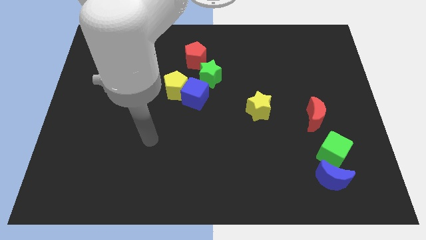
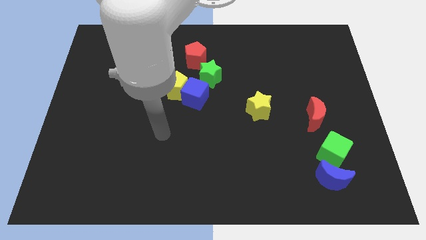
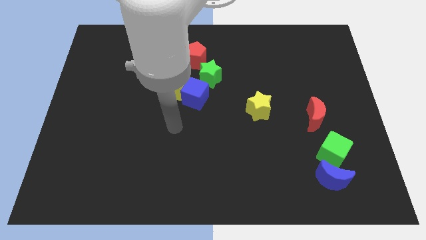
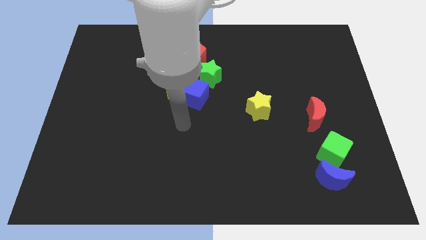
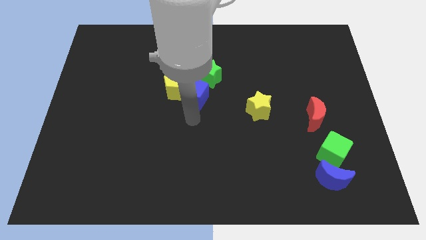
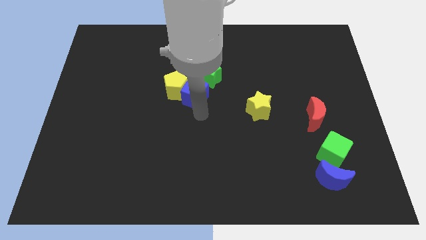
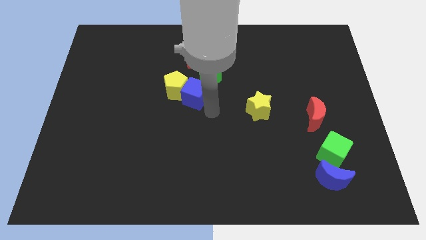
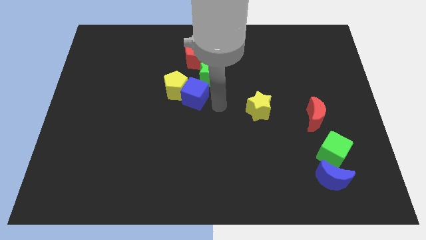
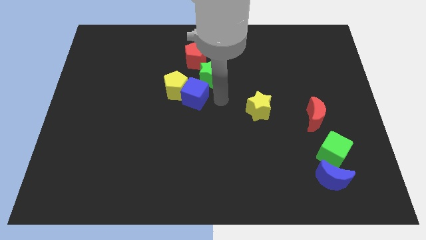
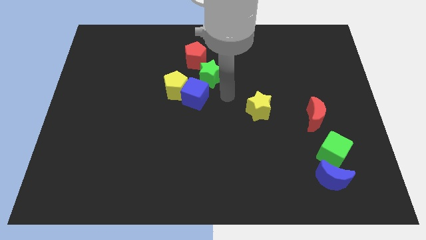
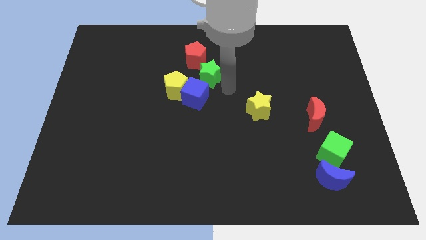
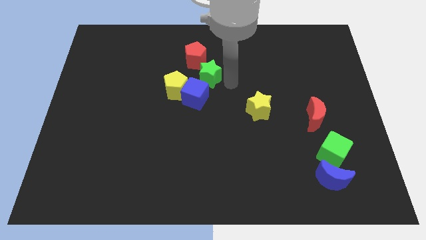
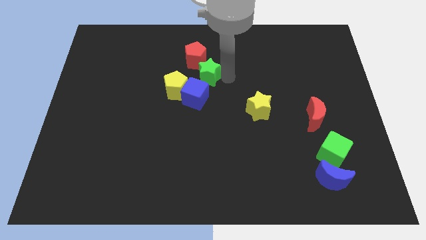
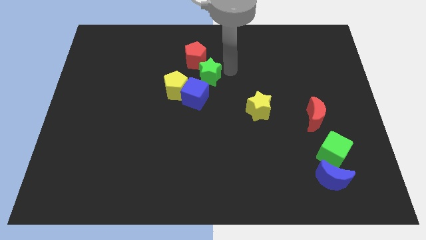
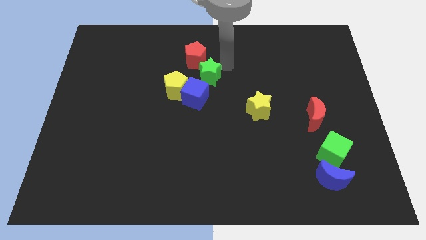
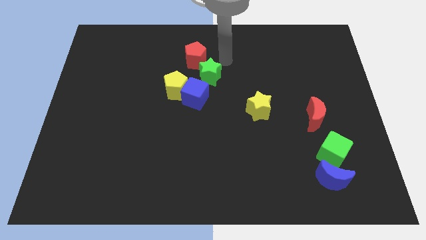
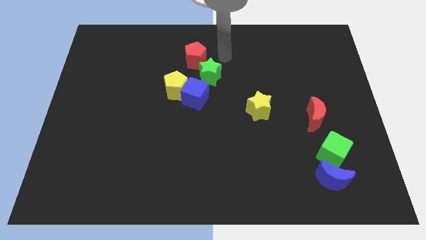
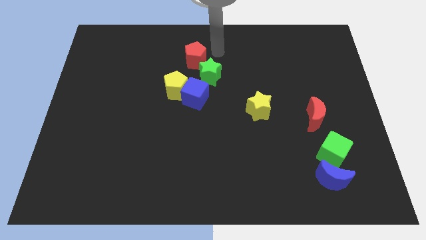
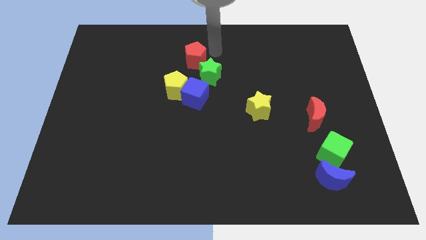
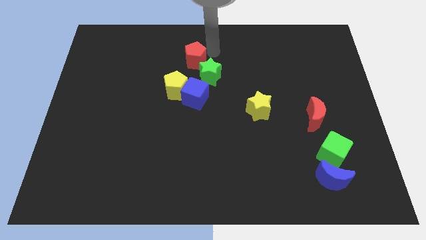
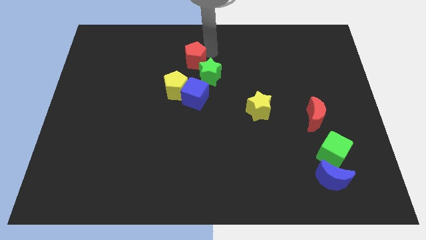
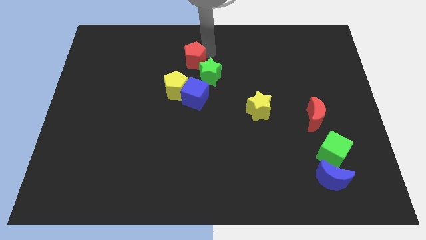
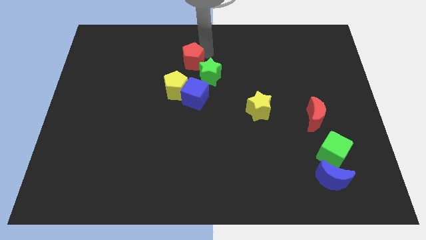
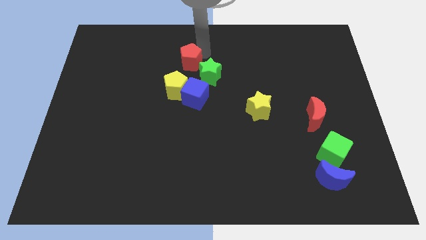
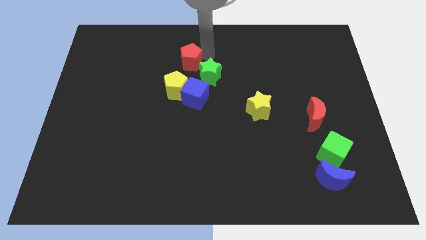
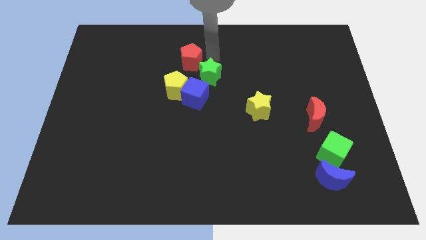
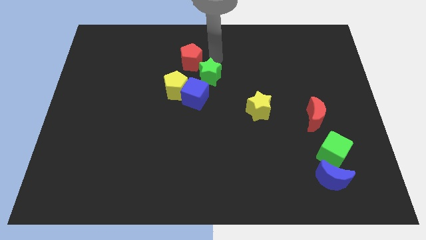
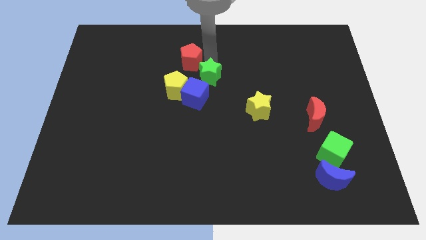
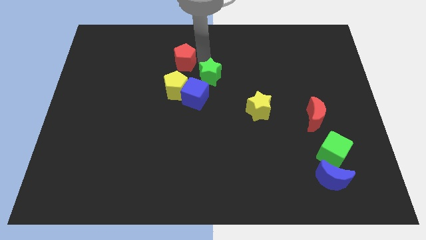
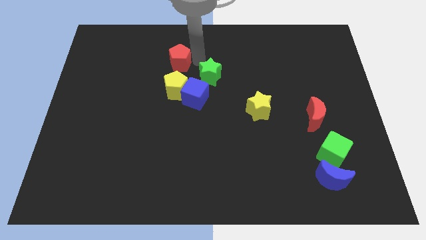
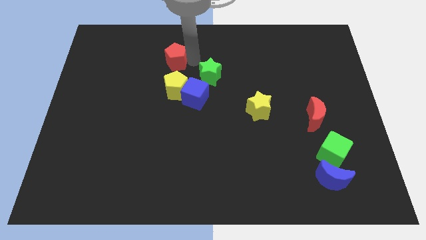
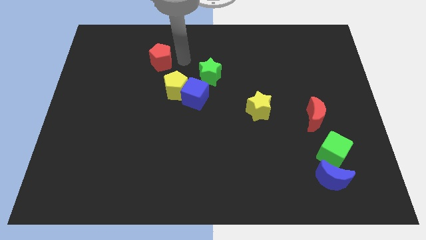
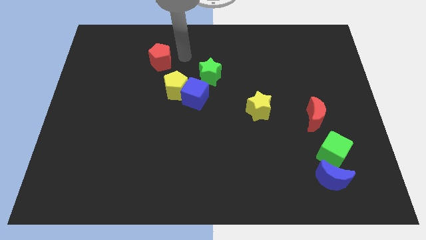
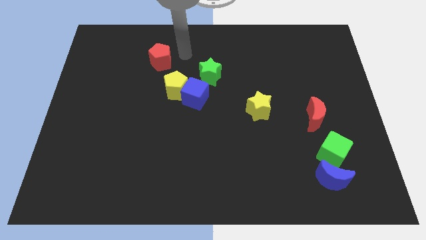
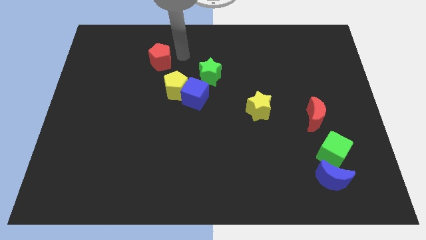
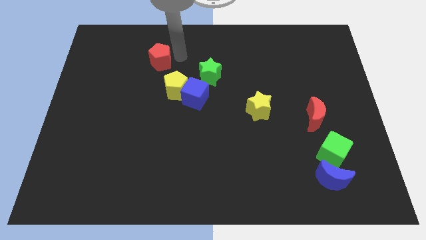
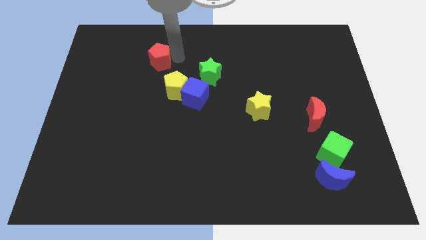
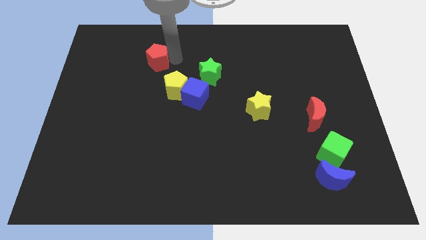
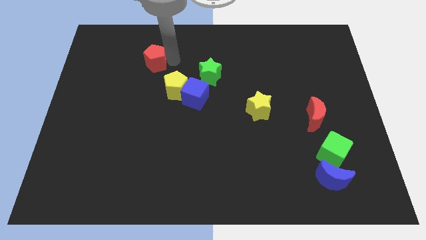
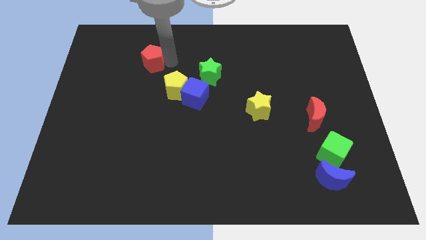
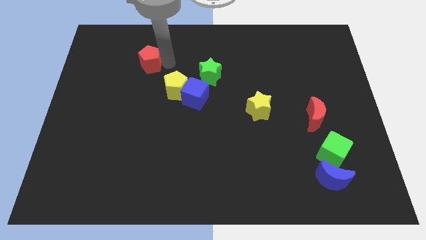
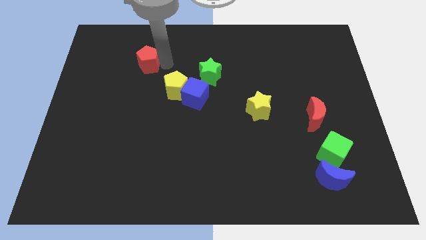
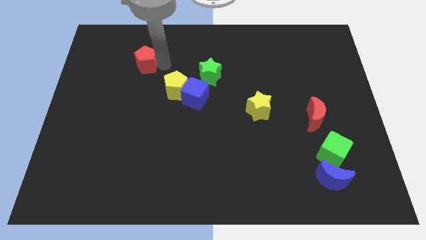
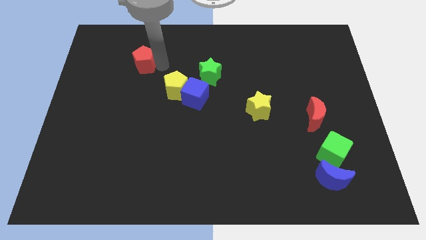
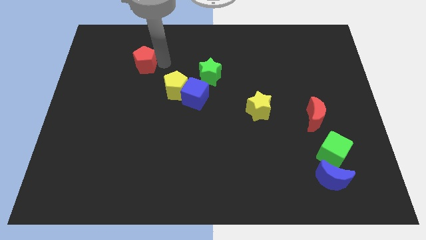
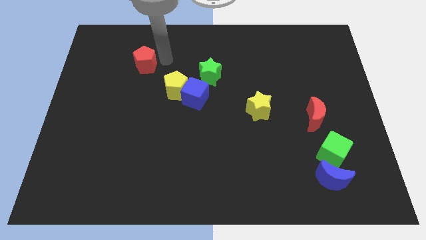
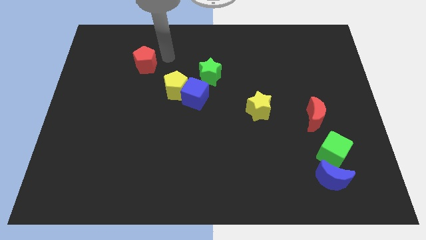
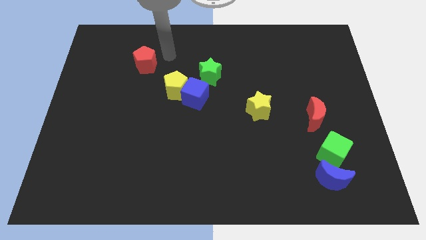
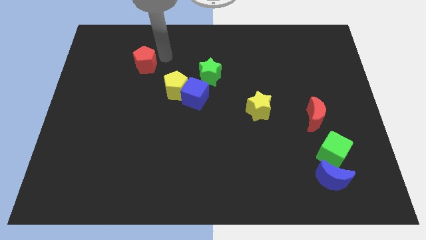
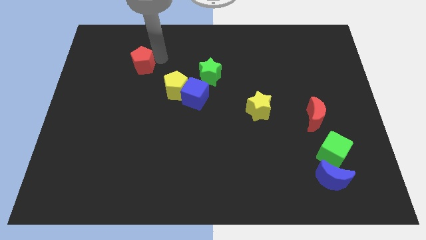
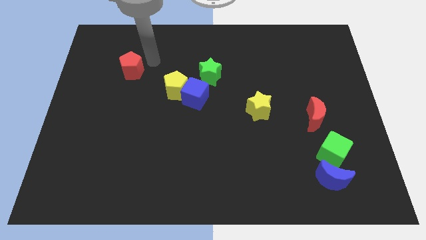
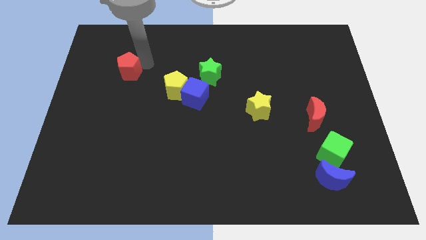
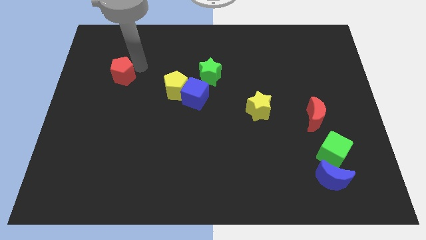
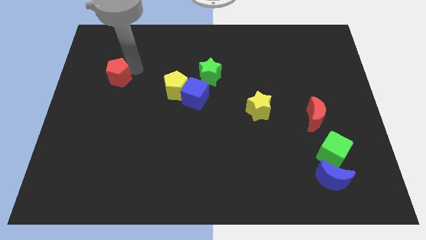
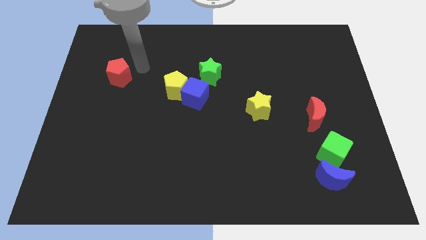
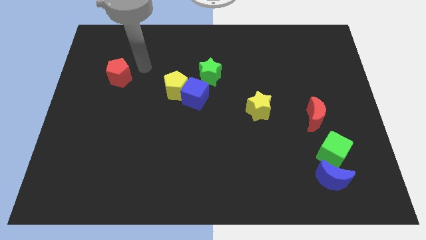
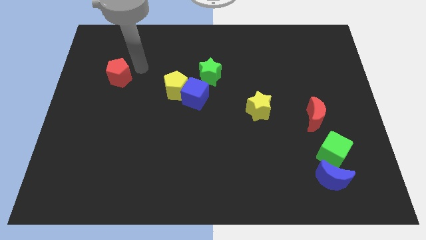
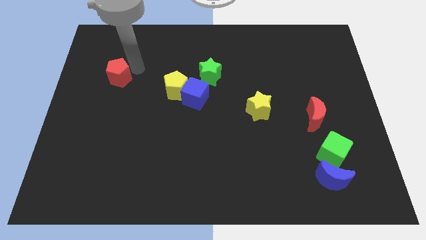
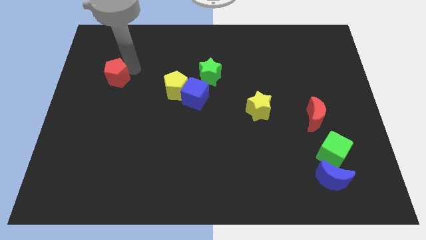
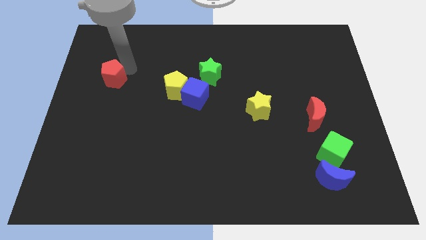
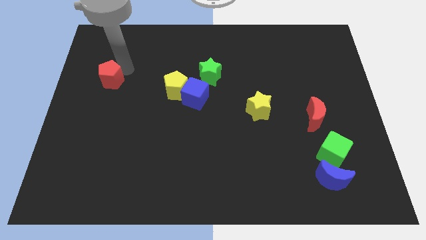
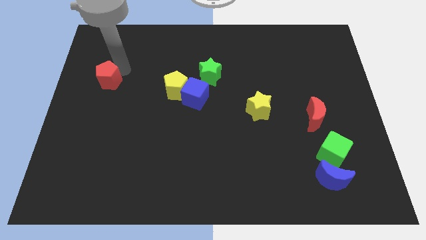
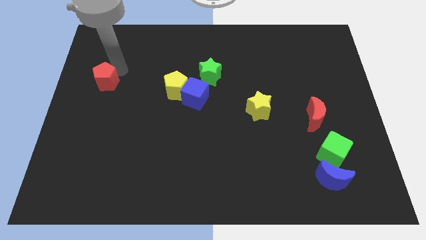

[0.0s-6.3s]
put the red pentagon to the left side of the board
